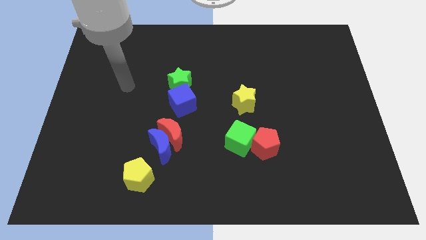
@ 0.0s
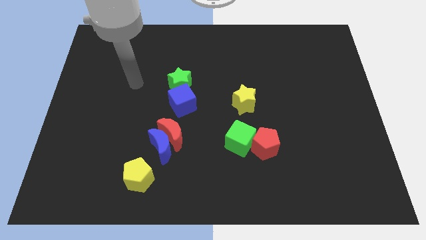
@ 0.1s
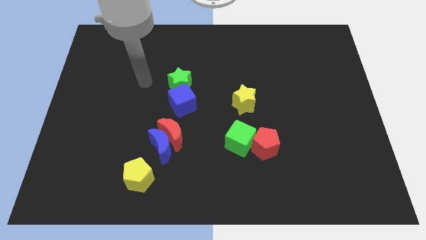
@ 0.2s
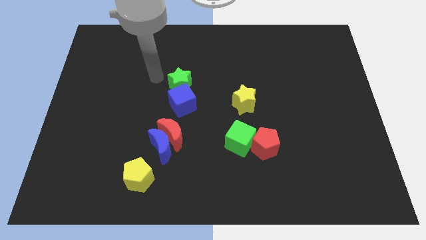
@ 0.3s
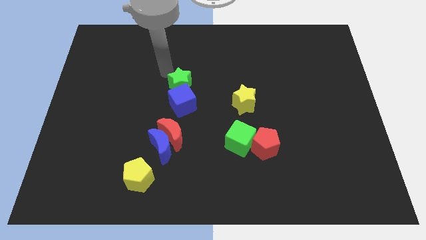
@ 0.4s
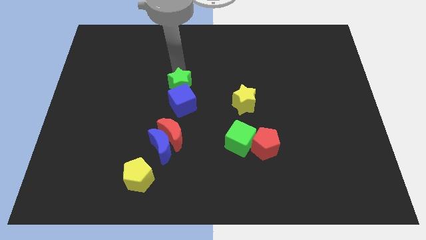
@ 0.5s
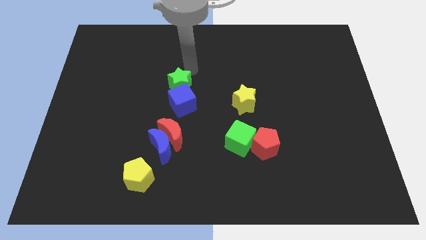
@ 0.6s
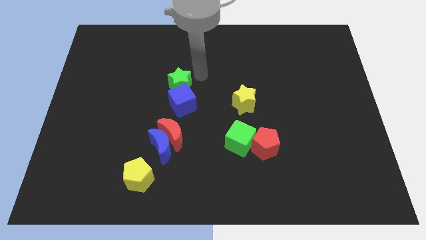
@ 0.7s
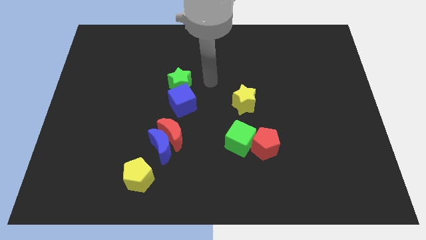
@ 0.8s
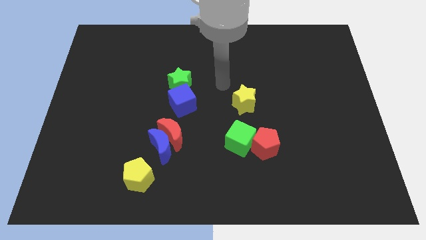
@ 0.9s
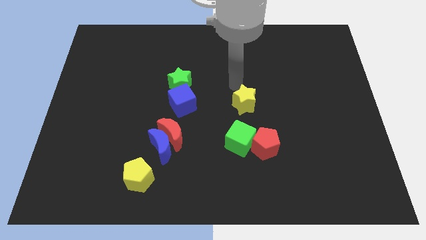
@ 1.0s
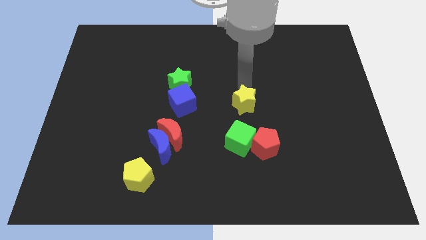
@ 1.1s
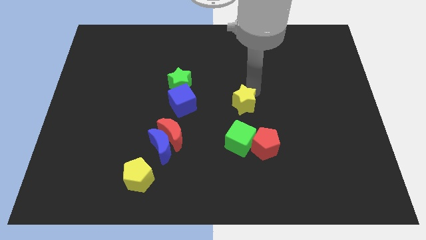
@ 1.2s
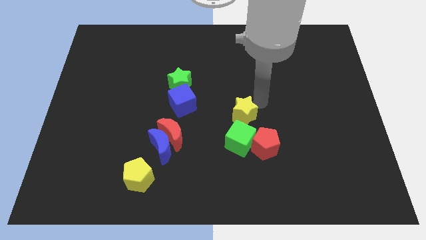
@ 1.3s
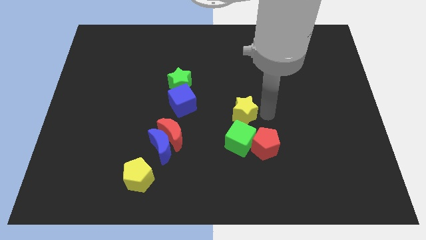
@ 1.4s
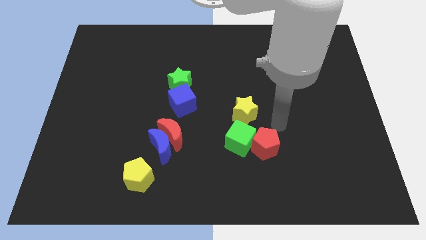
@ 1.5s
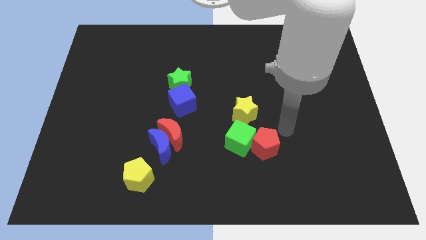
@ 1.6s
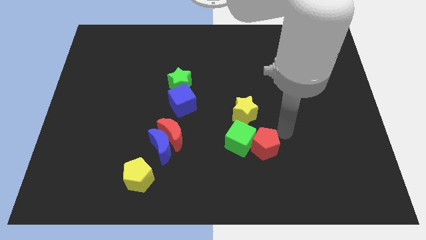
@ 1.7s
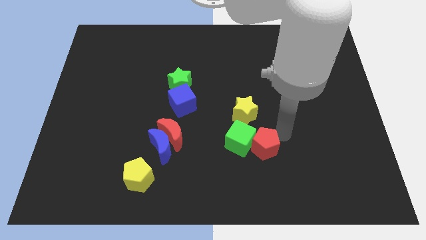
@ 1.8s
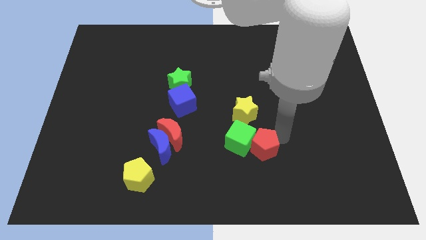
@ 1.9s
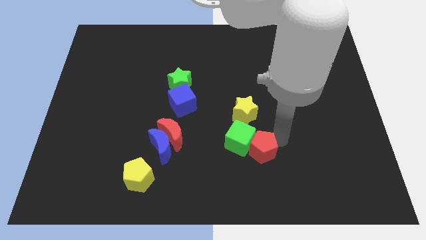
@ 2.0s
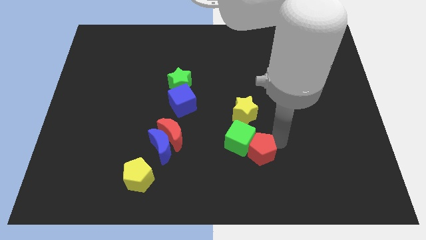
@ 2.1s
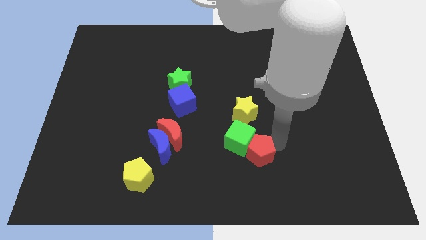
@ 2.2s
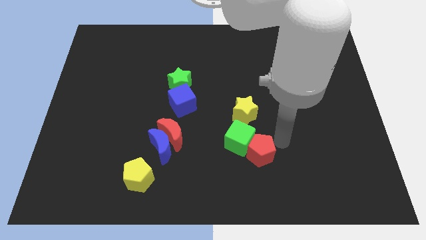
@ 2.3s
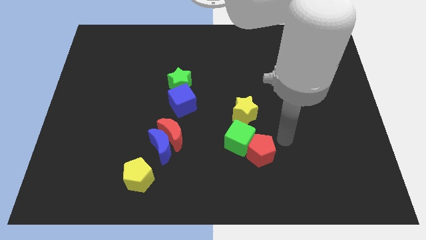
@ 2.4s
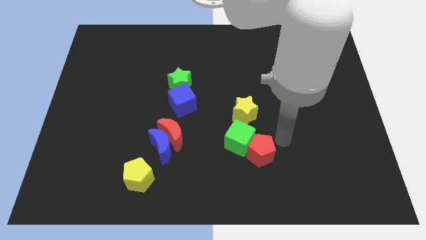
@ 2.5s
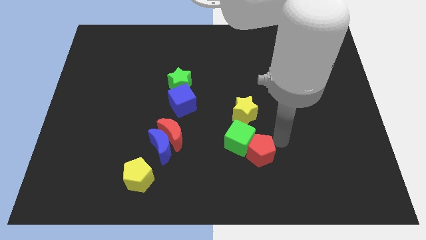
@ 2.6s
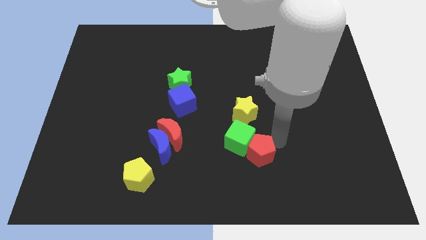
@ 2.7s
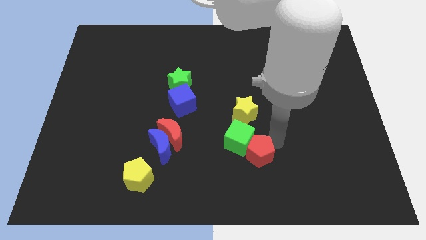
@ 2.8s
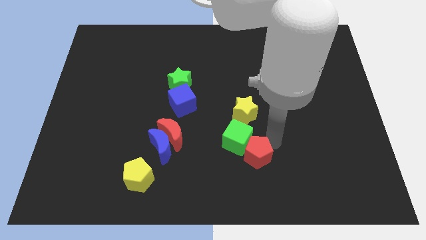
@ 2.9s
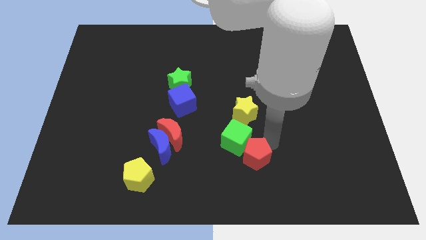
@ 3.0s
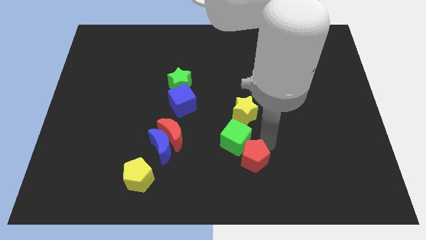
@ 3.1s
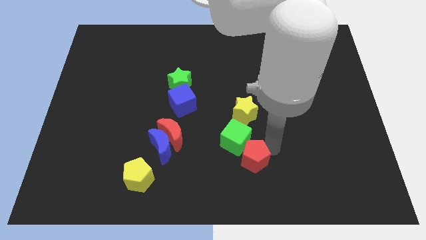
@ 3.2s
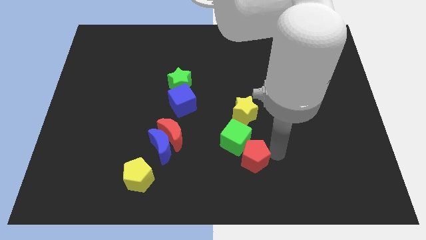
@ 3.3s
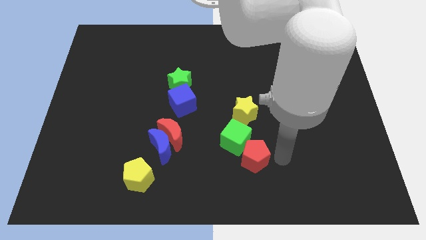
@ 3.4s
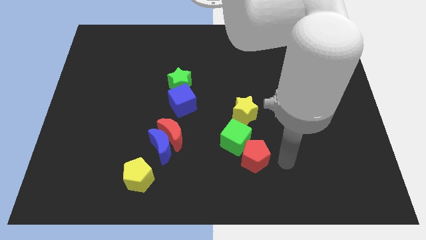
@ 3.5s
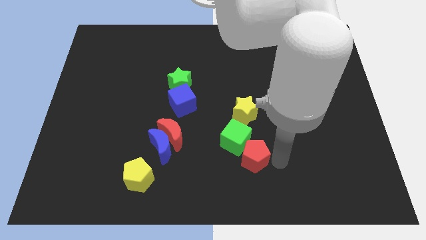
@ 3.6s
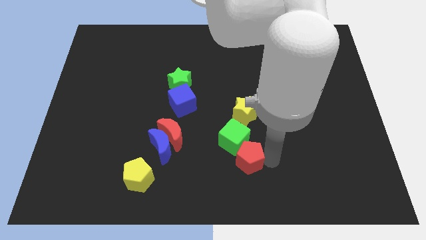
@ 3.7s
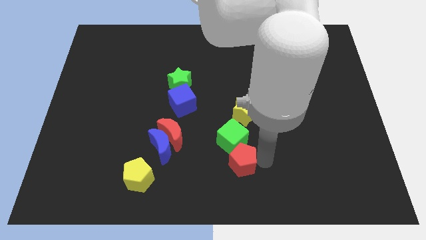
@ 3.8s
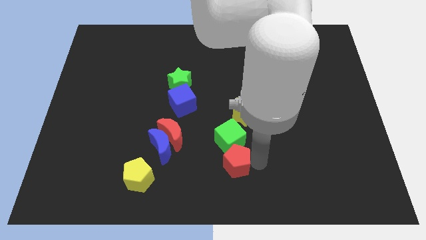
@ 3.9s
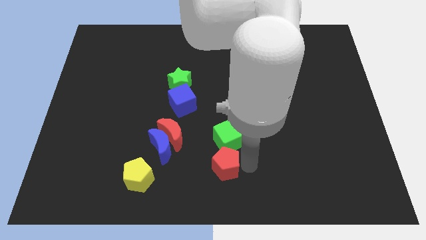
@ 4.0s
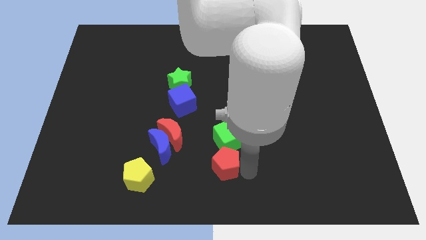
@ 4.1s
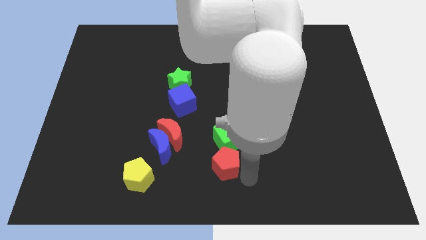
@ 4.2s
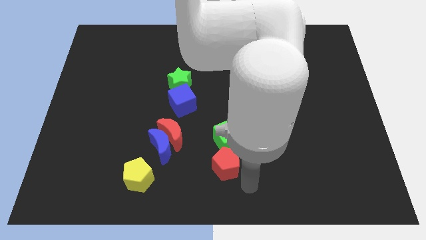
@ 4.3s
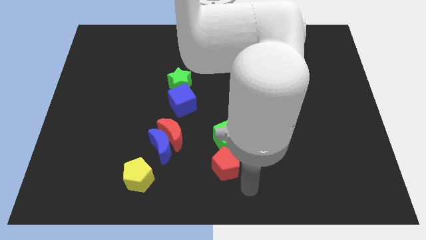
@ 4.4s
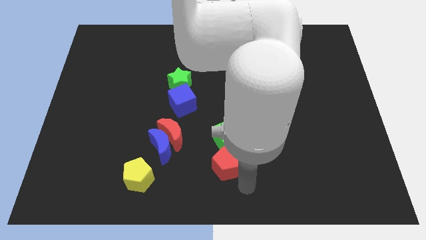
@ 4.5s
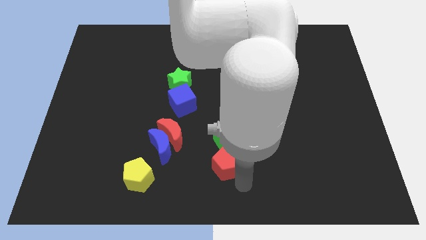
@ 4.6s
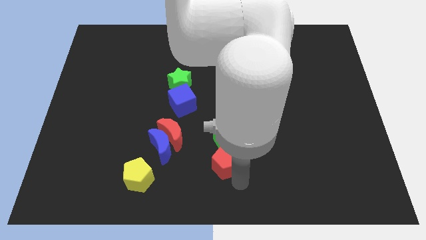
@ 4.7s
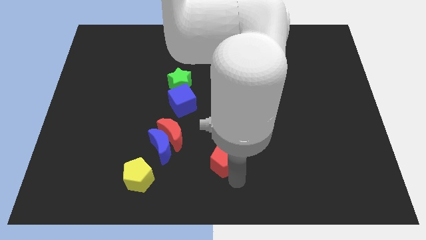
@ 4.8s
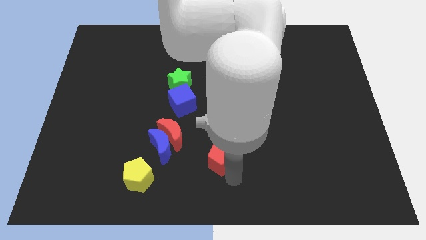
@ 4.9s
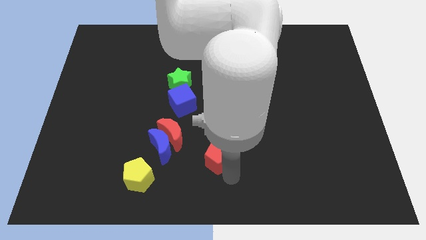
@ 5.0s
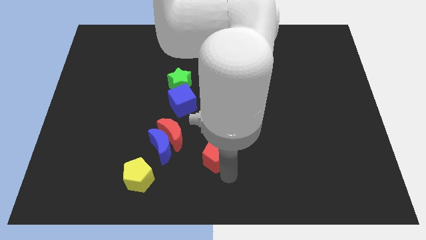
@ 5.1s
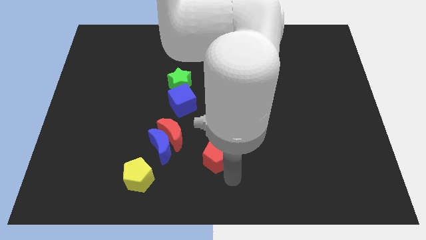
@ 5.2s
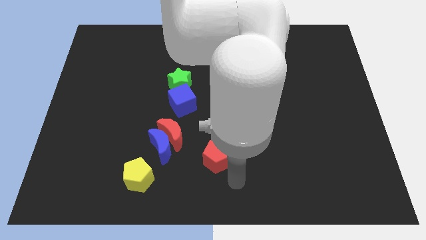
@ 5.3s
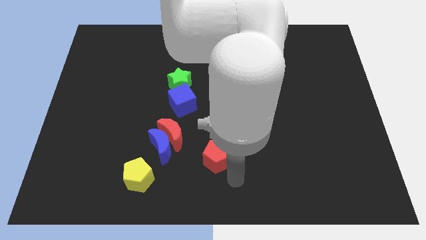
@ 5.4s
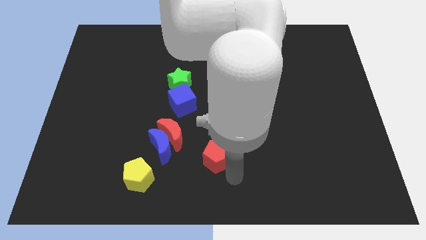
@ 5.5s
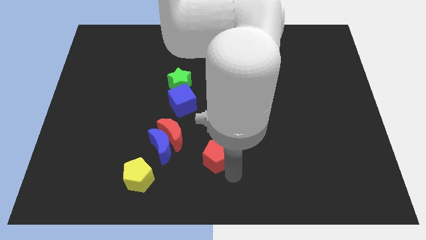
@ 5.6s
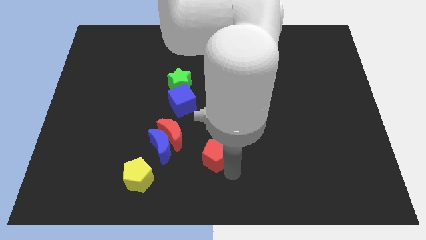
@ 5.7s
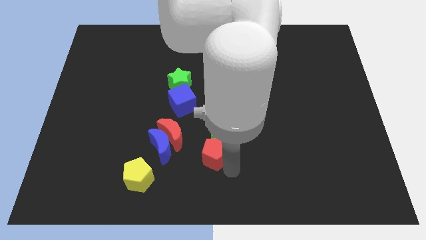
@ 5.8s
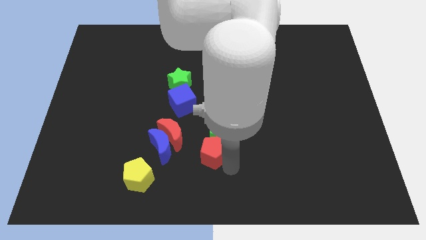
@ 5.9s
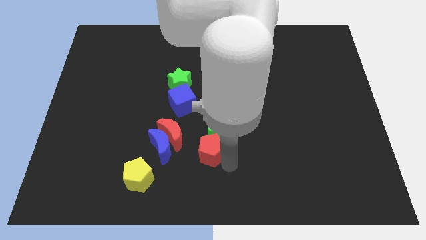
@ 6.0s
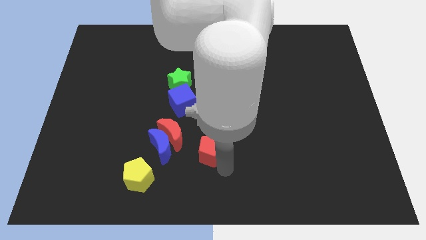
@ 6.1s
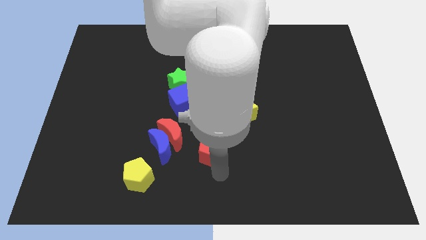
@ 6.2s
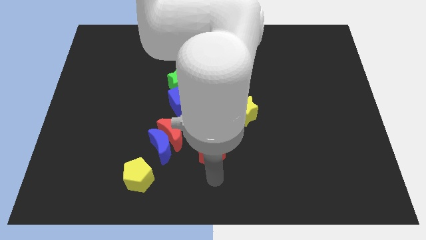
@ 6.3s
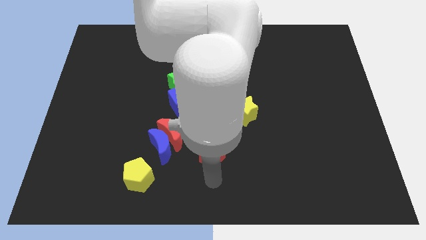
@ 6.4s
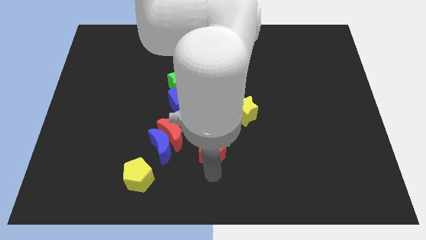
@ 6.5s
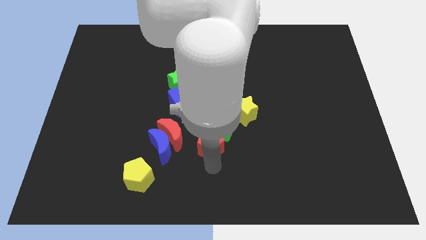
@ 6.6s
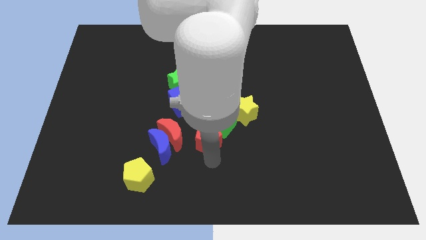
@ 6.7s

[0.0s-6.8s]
push the red pentagon slightly up and then left

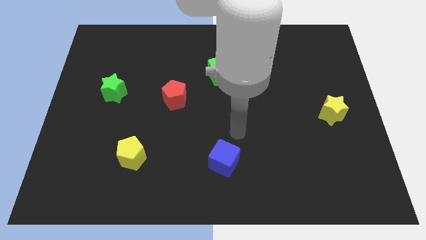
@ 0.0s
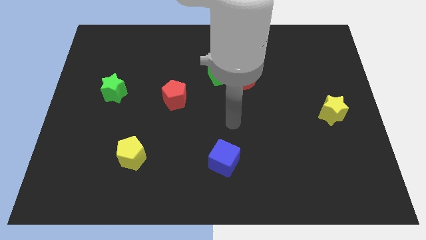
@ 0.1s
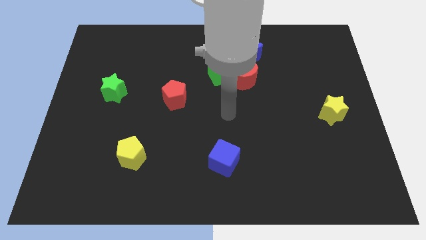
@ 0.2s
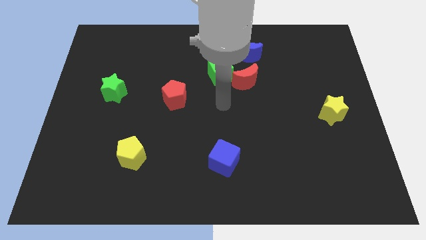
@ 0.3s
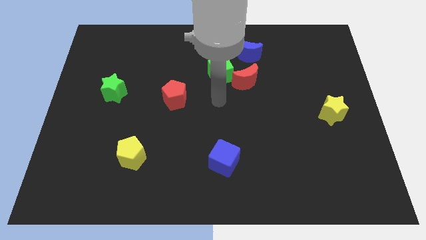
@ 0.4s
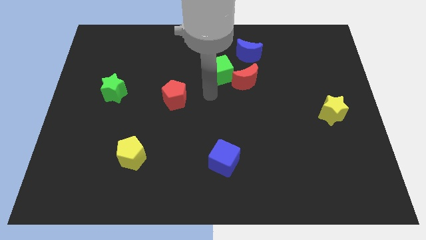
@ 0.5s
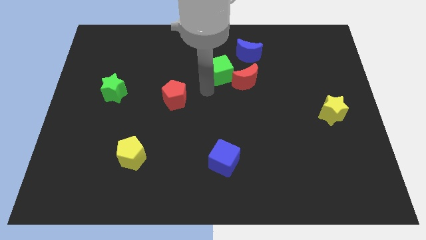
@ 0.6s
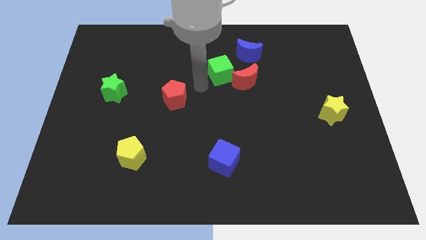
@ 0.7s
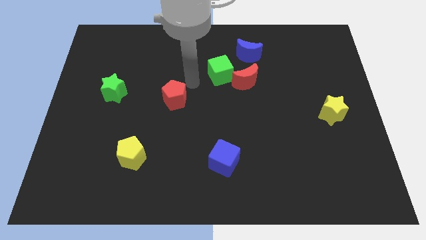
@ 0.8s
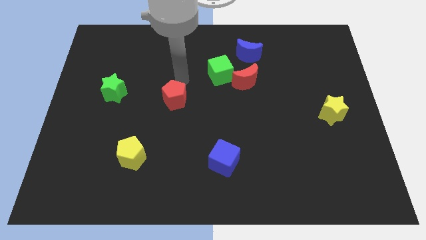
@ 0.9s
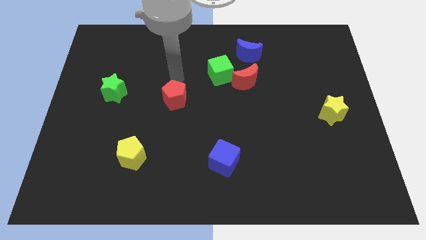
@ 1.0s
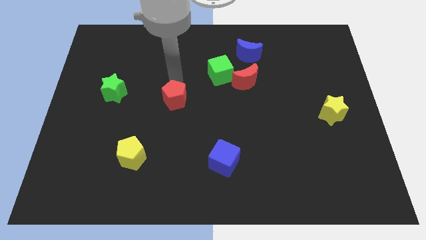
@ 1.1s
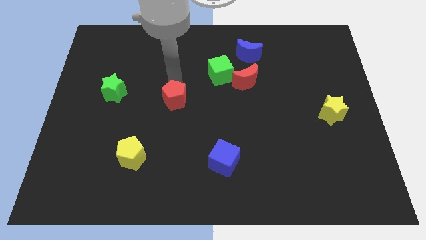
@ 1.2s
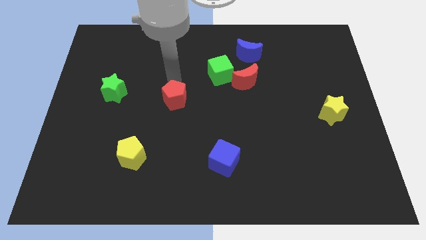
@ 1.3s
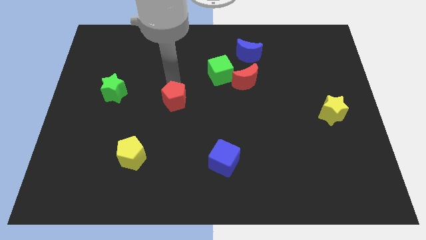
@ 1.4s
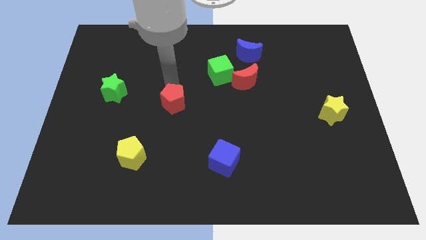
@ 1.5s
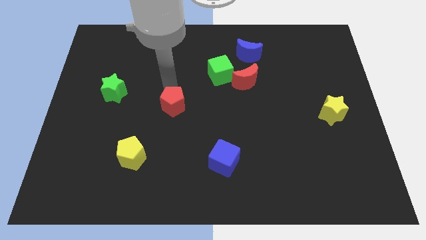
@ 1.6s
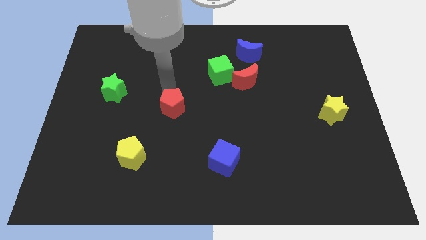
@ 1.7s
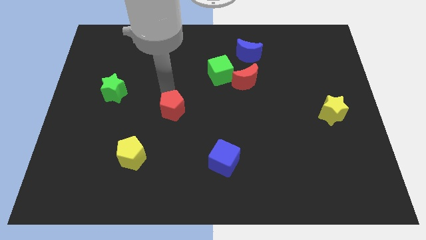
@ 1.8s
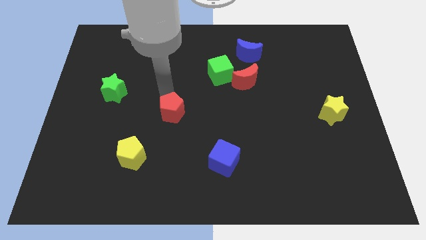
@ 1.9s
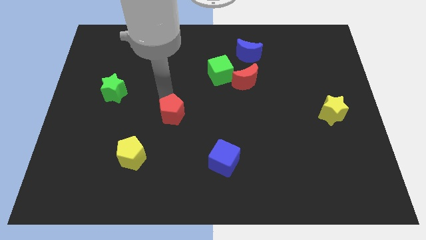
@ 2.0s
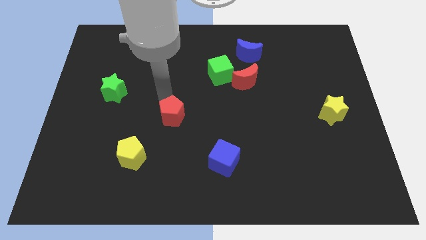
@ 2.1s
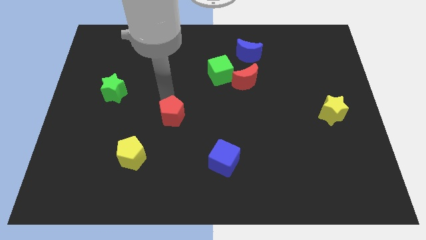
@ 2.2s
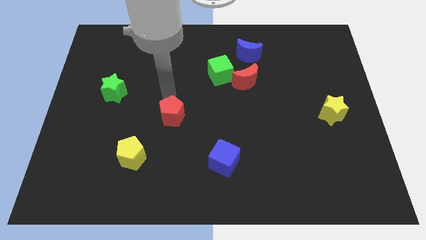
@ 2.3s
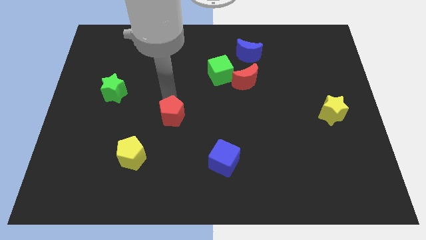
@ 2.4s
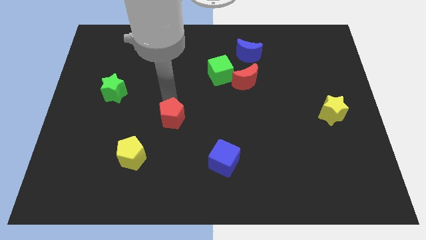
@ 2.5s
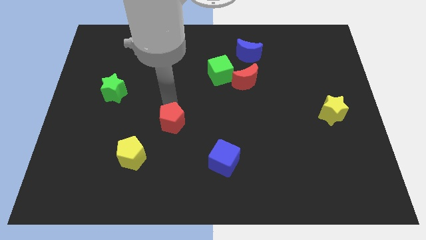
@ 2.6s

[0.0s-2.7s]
move the red pentagon somewhat down
